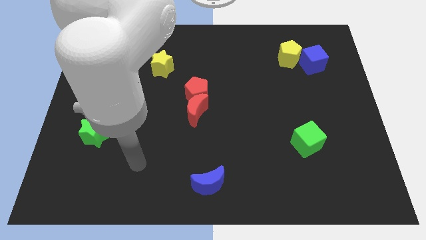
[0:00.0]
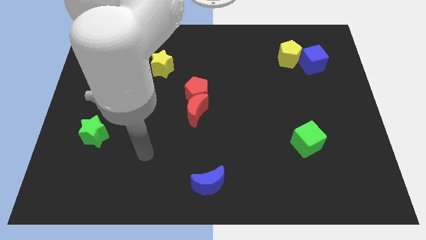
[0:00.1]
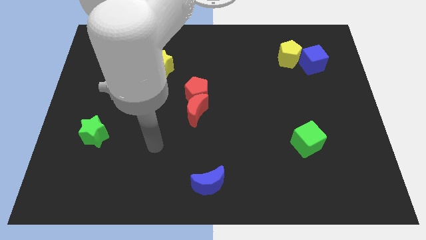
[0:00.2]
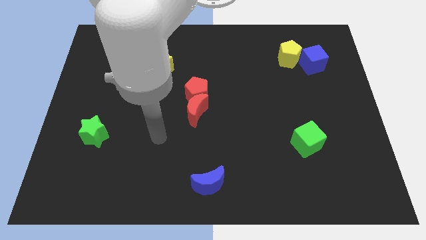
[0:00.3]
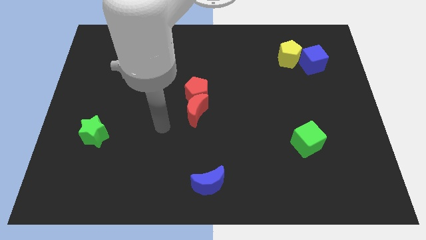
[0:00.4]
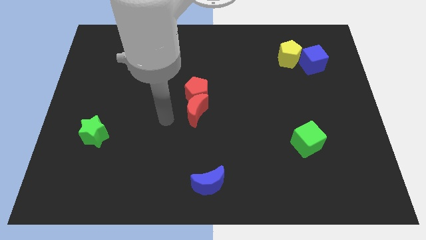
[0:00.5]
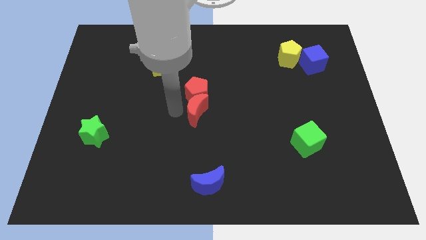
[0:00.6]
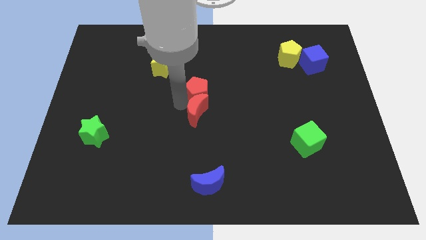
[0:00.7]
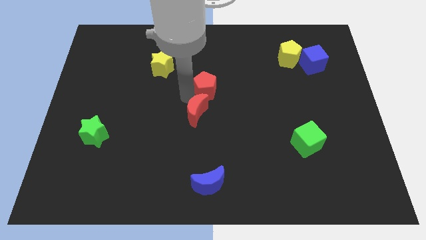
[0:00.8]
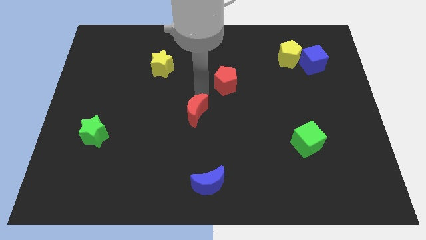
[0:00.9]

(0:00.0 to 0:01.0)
move the red moon away from the red pentagon

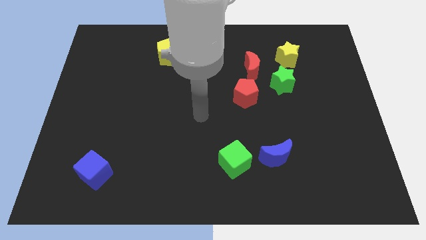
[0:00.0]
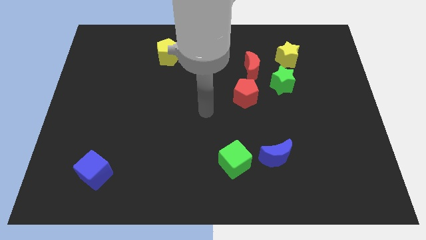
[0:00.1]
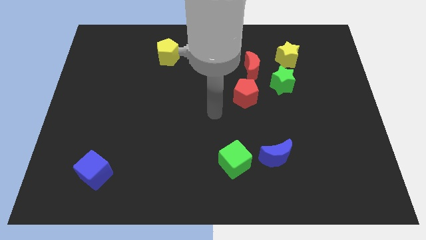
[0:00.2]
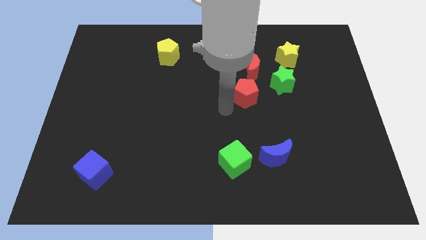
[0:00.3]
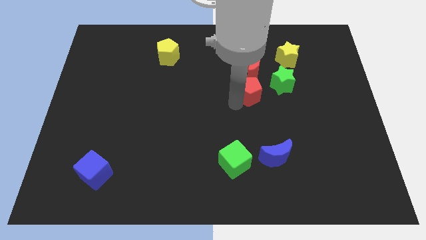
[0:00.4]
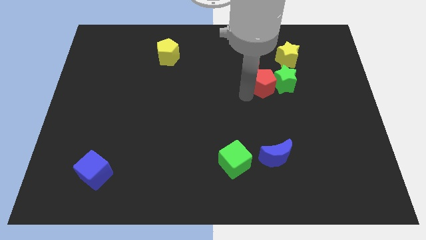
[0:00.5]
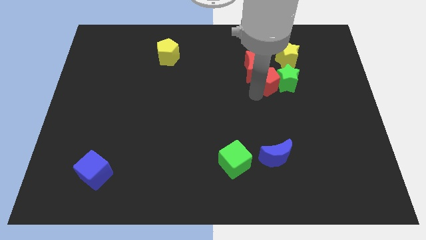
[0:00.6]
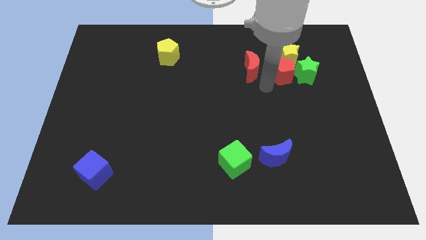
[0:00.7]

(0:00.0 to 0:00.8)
move the red moon away from the green star and red pentagon

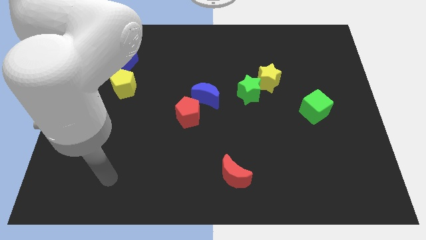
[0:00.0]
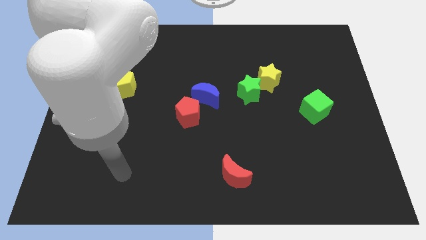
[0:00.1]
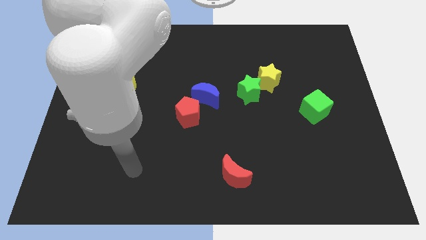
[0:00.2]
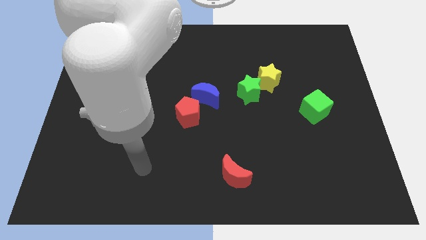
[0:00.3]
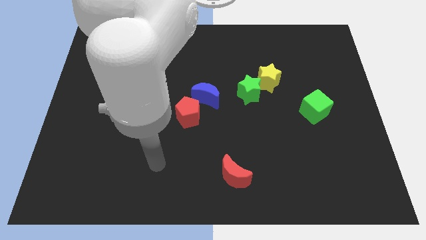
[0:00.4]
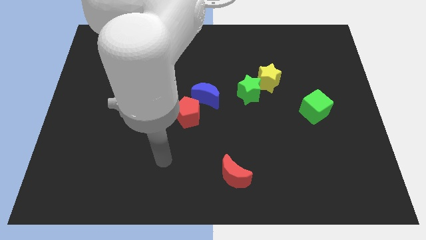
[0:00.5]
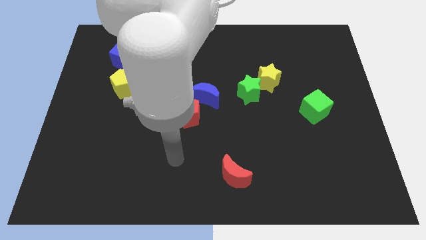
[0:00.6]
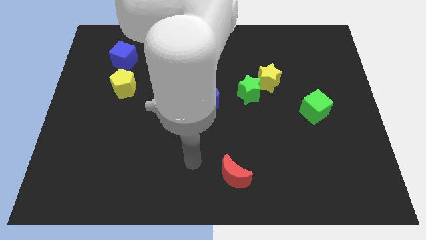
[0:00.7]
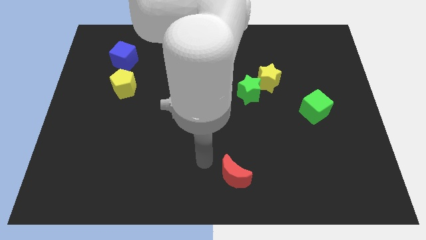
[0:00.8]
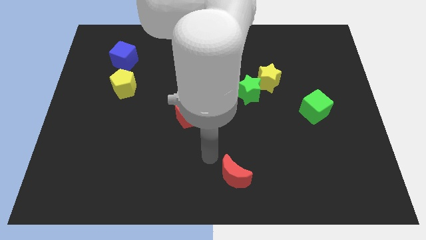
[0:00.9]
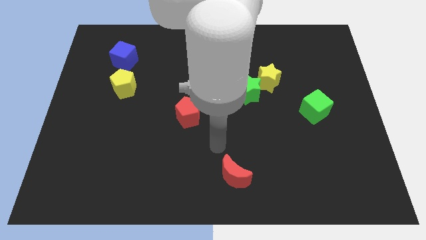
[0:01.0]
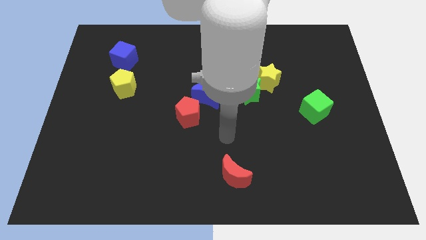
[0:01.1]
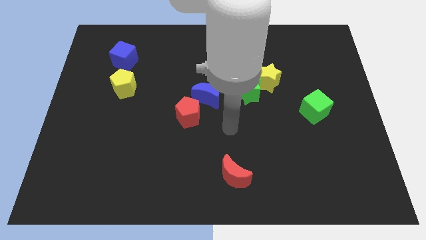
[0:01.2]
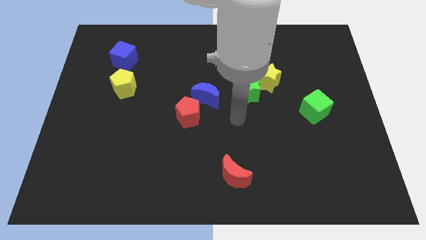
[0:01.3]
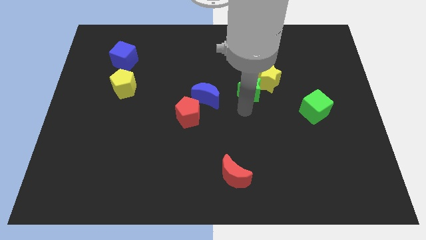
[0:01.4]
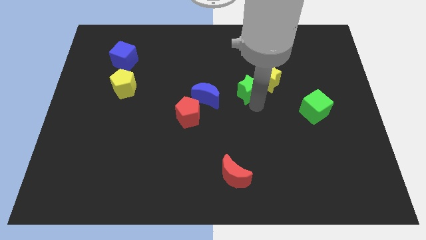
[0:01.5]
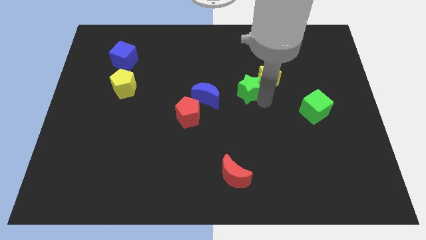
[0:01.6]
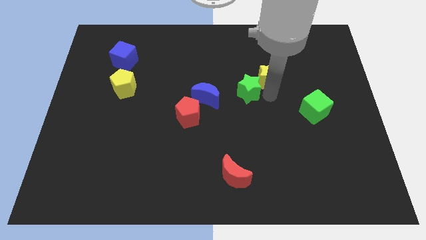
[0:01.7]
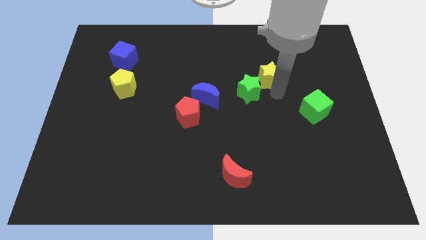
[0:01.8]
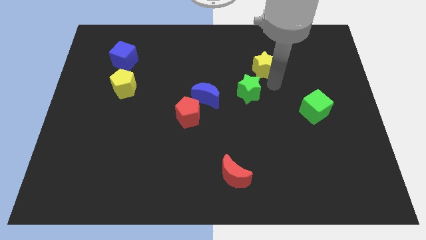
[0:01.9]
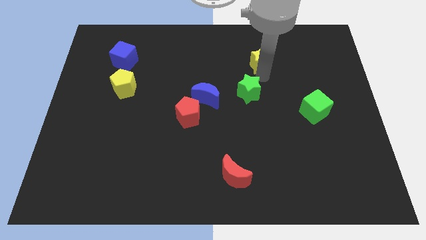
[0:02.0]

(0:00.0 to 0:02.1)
move the green star away from the yellow star

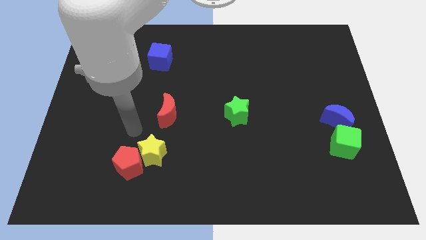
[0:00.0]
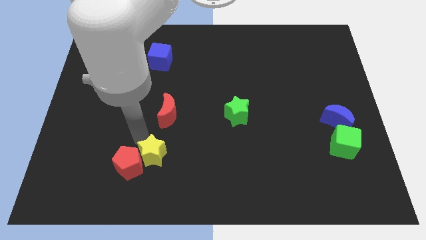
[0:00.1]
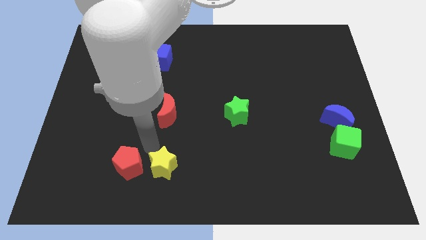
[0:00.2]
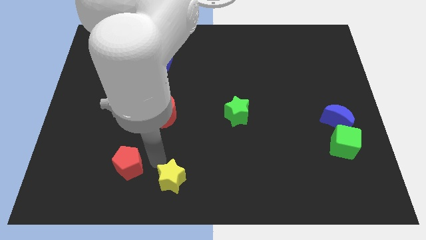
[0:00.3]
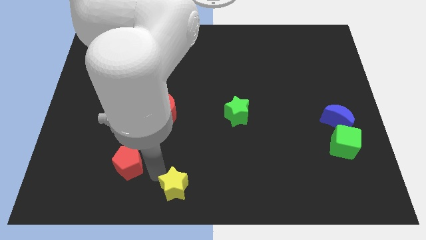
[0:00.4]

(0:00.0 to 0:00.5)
pull the red pentagon apart from the yellow star

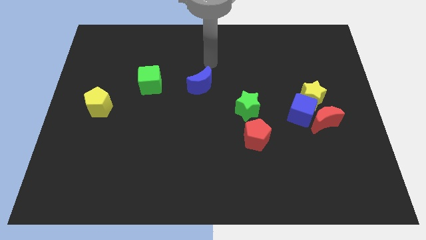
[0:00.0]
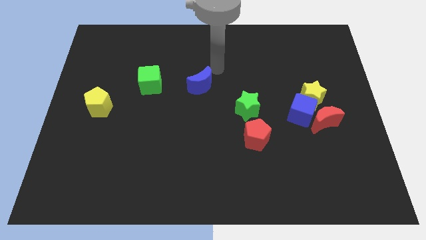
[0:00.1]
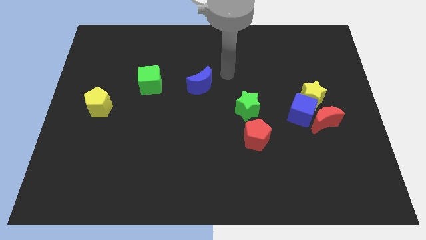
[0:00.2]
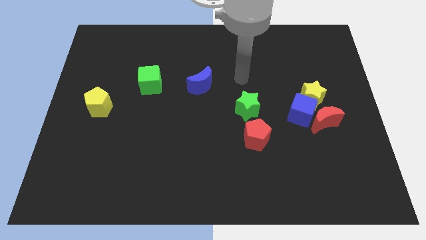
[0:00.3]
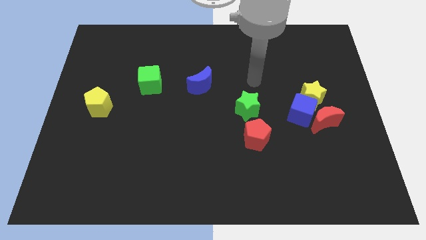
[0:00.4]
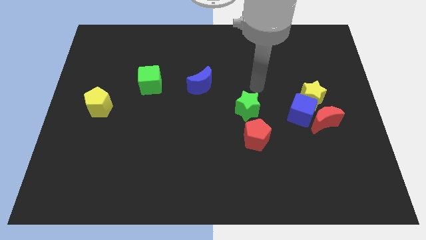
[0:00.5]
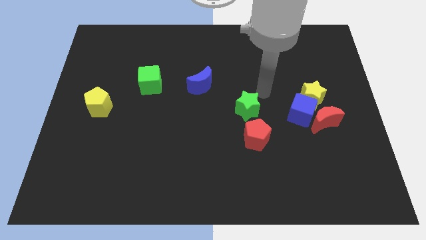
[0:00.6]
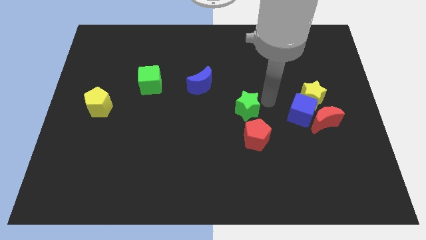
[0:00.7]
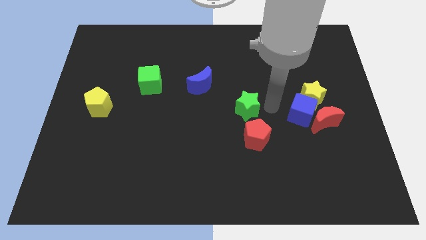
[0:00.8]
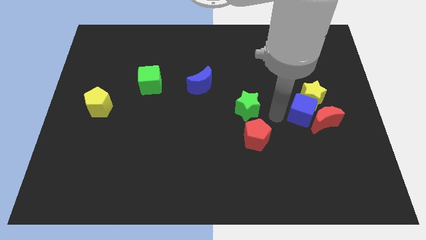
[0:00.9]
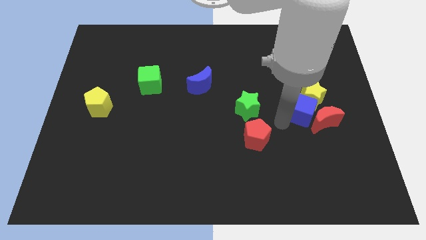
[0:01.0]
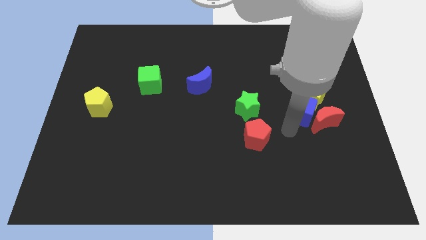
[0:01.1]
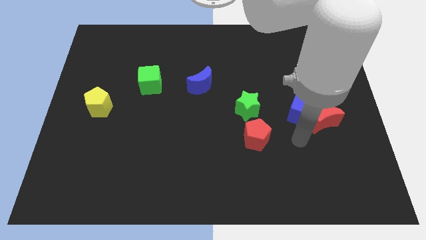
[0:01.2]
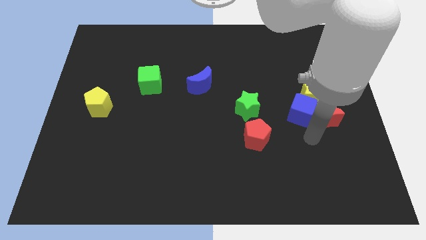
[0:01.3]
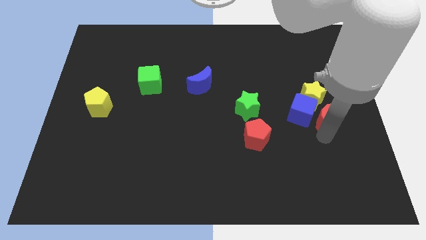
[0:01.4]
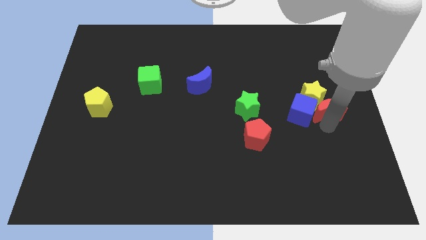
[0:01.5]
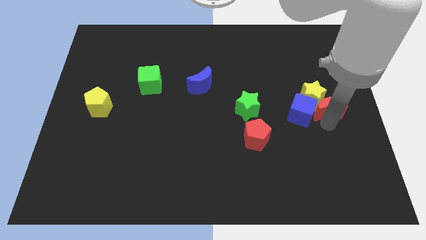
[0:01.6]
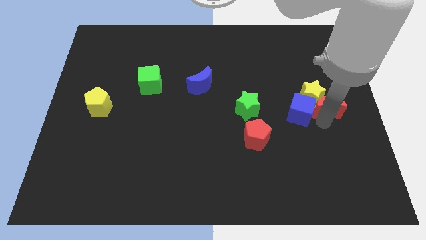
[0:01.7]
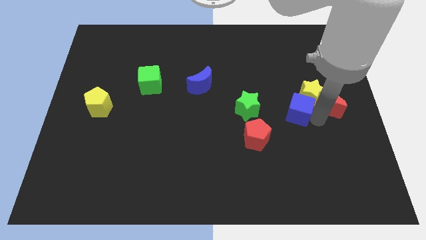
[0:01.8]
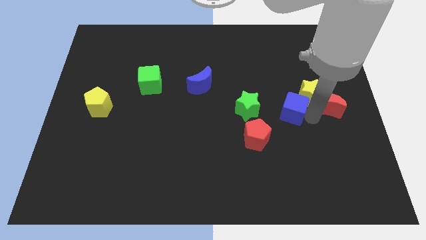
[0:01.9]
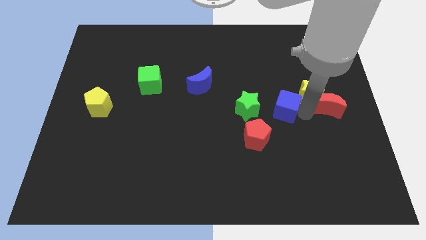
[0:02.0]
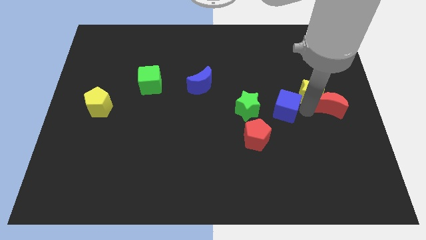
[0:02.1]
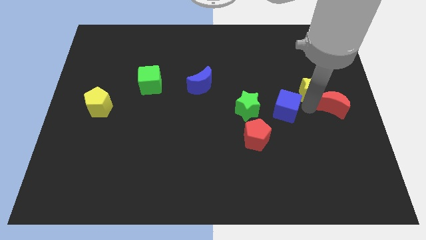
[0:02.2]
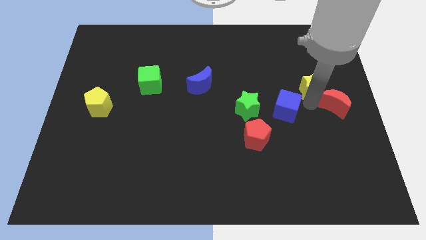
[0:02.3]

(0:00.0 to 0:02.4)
pull the blue cube apart from the red moon and yellow star

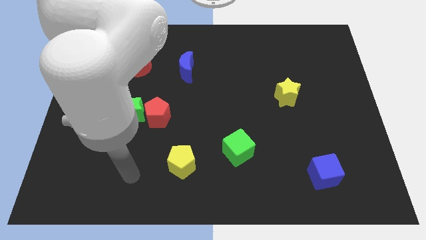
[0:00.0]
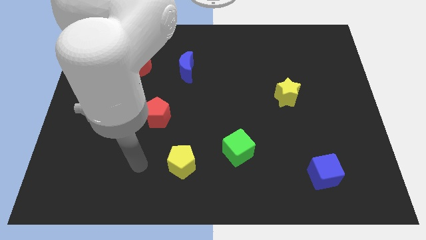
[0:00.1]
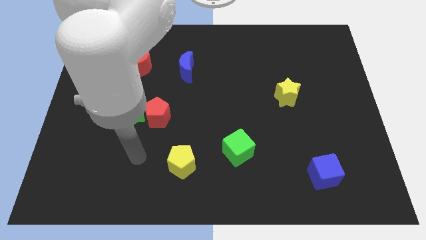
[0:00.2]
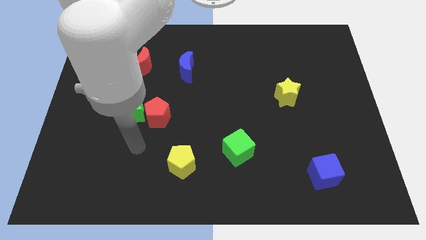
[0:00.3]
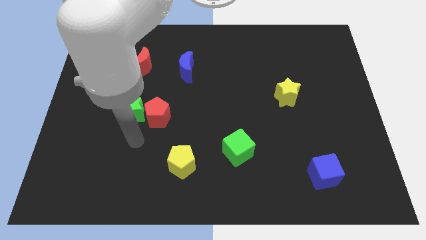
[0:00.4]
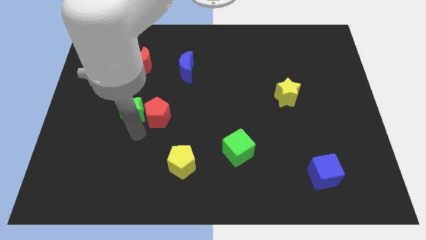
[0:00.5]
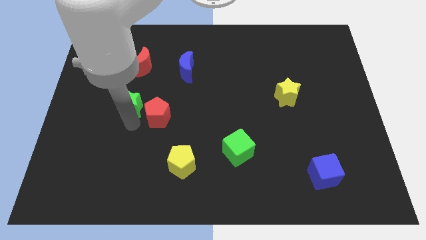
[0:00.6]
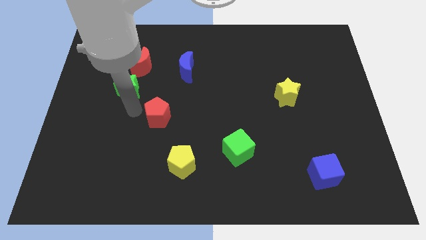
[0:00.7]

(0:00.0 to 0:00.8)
move the red pentagon away from the green star

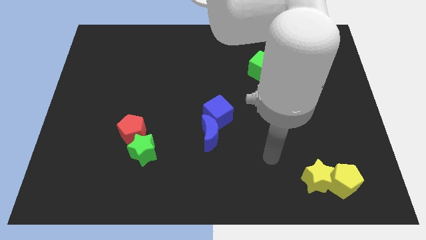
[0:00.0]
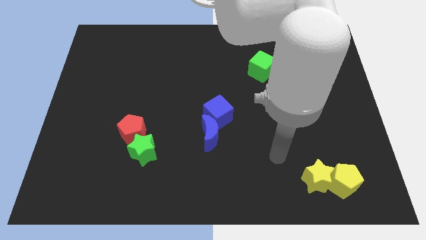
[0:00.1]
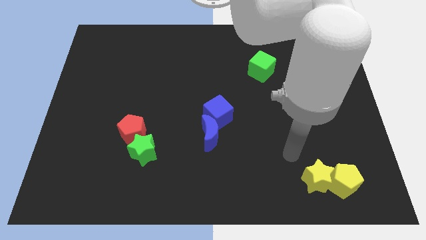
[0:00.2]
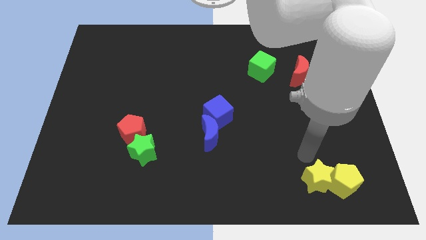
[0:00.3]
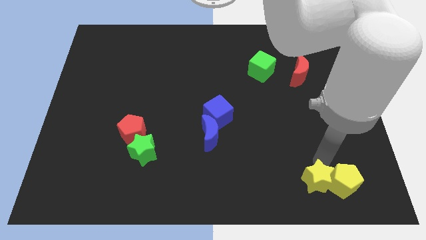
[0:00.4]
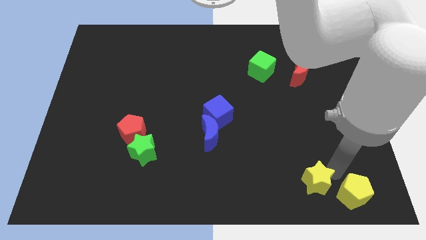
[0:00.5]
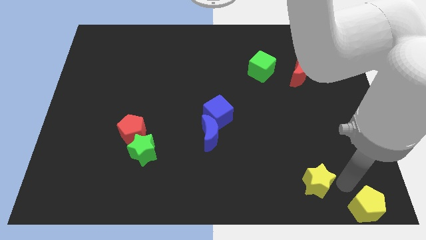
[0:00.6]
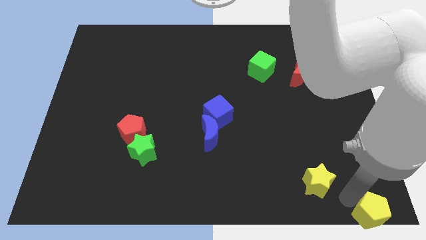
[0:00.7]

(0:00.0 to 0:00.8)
separate the yellow star from the yellow pentagon

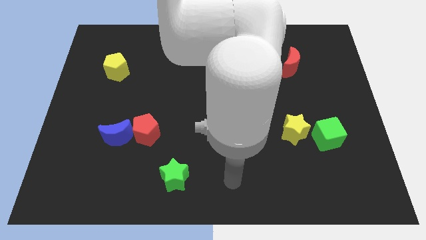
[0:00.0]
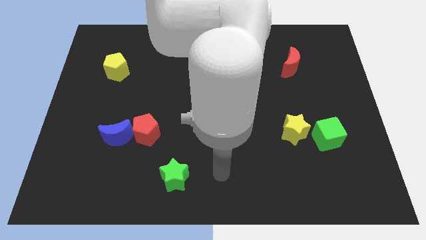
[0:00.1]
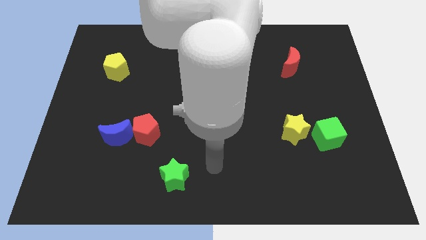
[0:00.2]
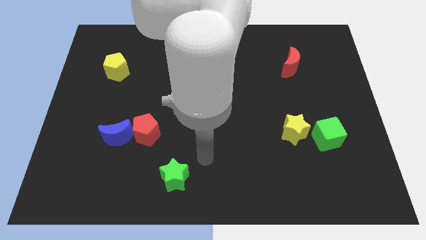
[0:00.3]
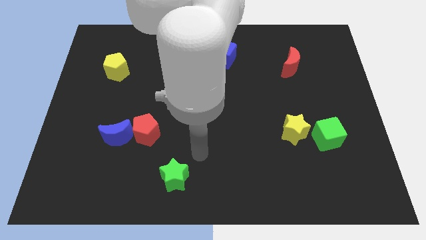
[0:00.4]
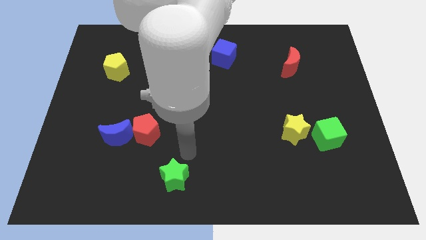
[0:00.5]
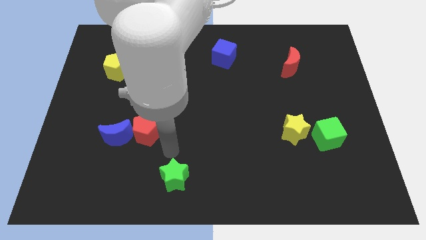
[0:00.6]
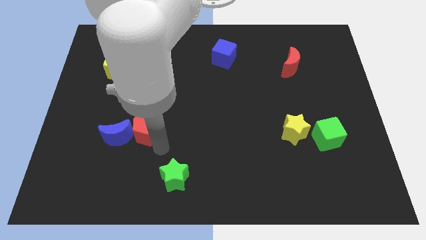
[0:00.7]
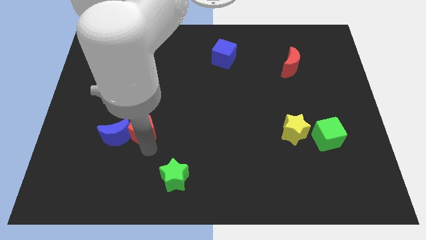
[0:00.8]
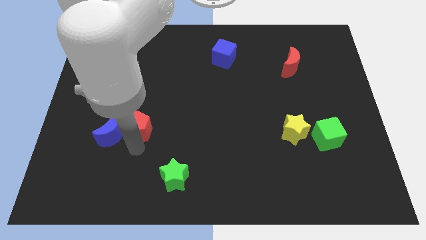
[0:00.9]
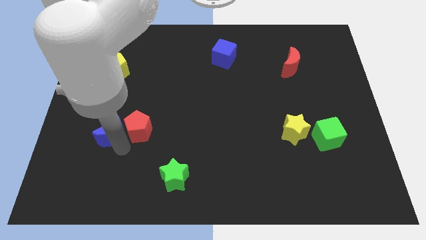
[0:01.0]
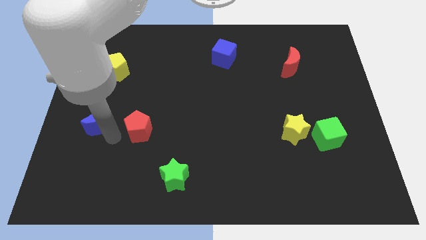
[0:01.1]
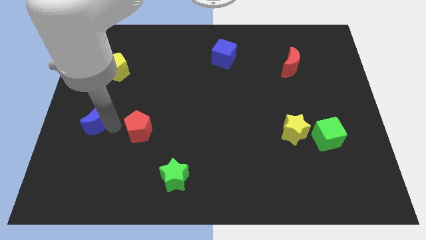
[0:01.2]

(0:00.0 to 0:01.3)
pull the red pentagon apart from the blue moon
